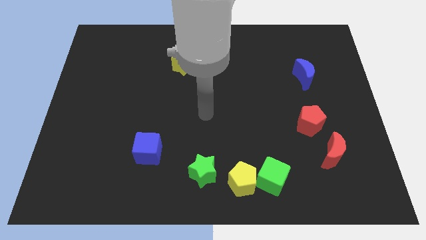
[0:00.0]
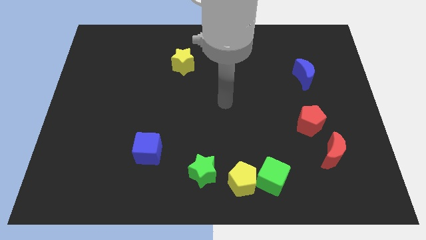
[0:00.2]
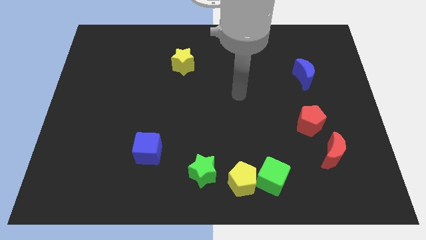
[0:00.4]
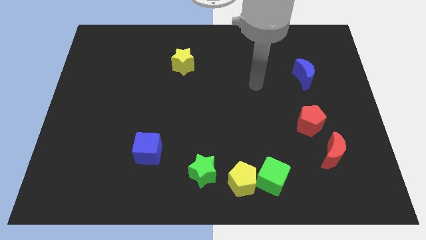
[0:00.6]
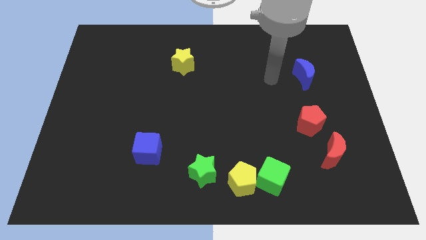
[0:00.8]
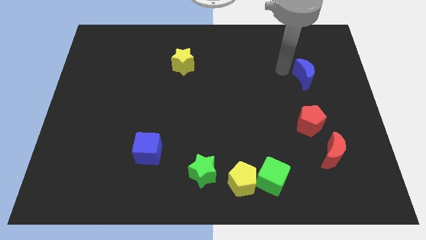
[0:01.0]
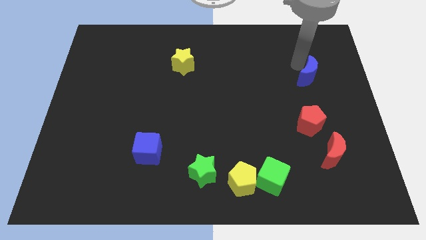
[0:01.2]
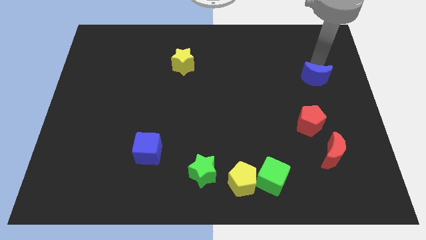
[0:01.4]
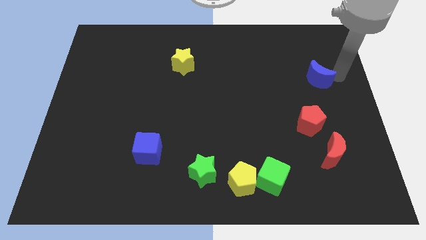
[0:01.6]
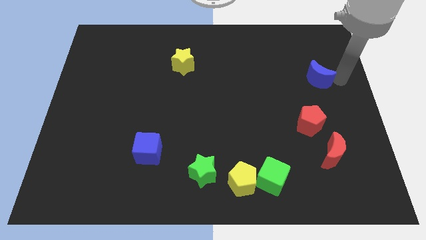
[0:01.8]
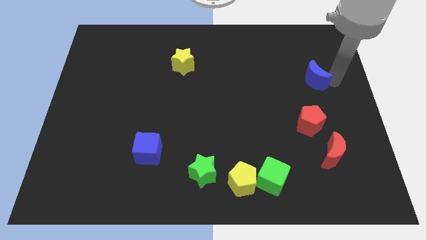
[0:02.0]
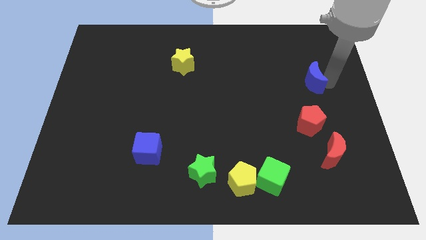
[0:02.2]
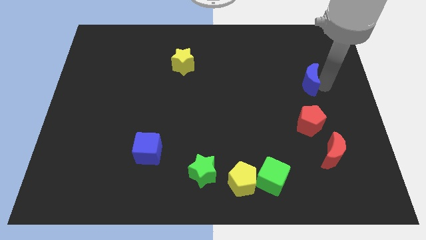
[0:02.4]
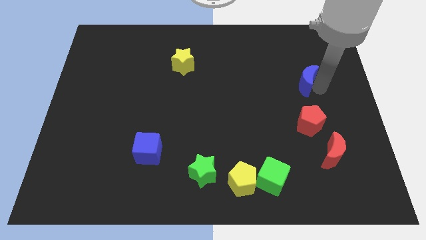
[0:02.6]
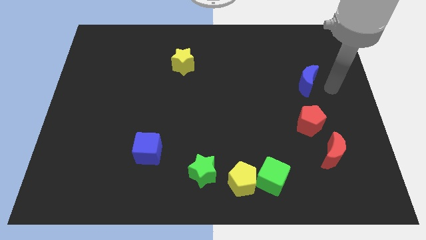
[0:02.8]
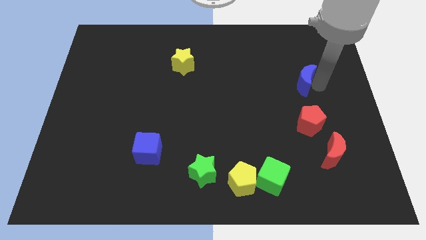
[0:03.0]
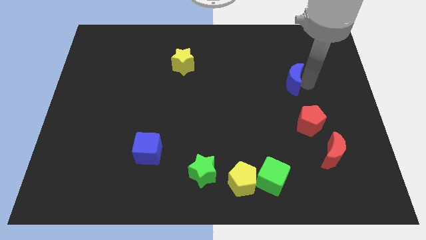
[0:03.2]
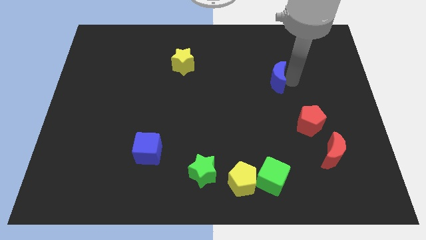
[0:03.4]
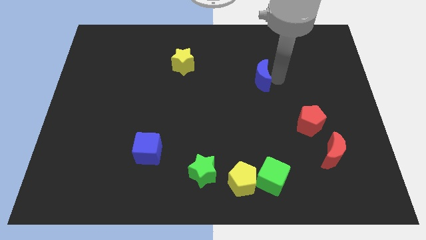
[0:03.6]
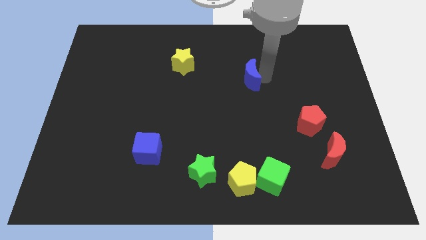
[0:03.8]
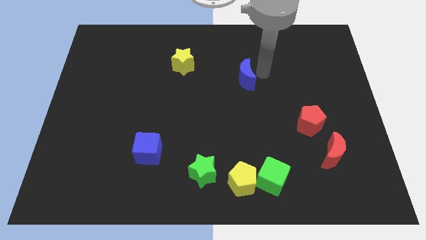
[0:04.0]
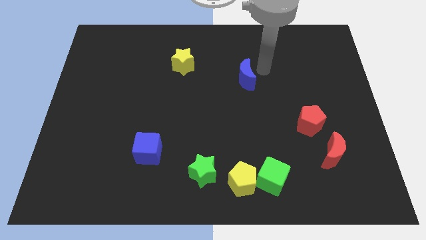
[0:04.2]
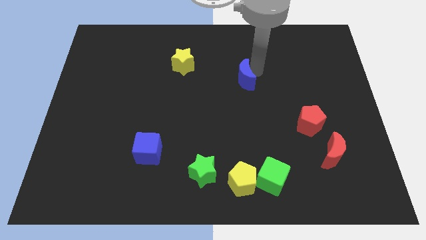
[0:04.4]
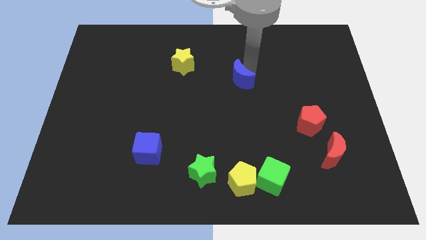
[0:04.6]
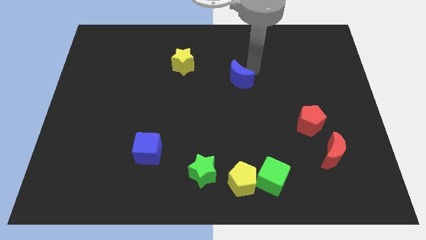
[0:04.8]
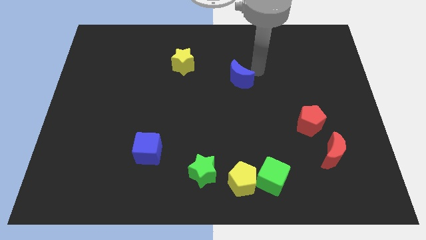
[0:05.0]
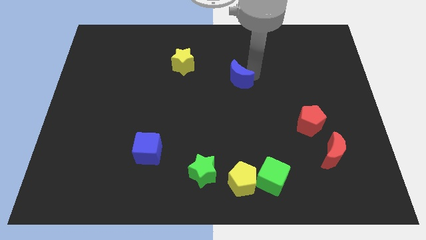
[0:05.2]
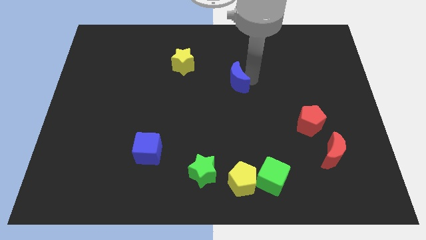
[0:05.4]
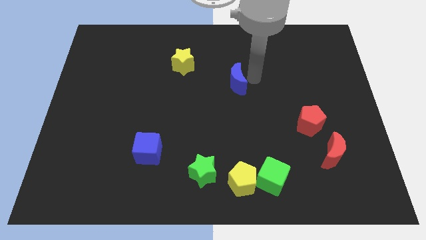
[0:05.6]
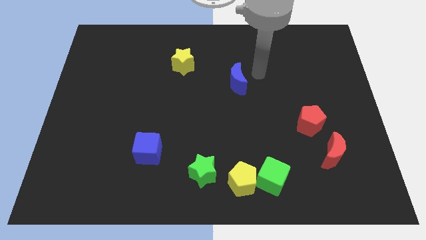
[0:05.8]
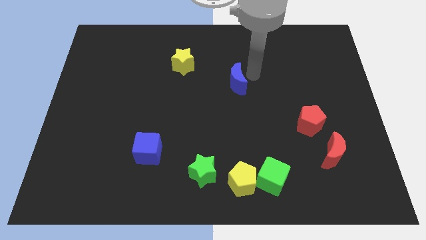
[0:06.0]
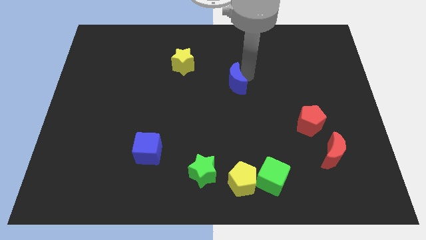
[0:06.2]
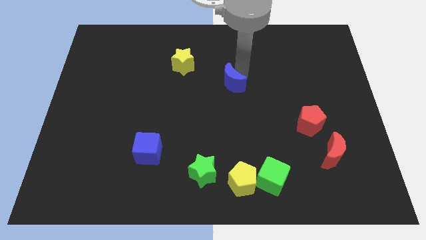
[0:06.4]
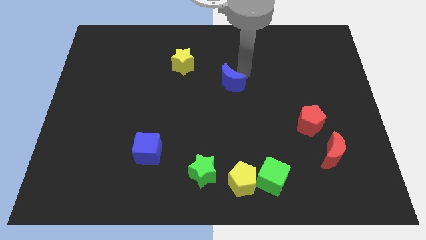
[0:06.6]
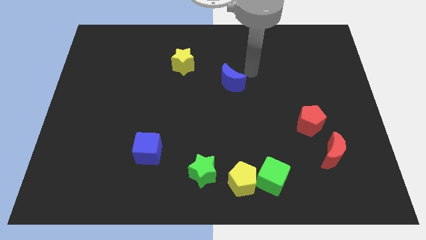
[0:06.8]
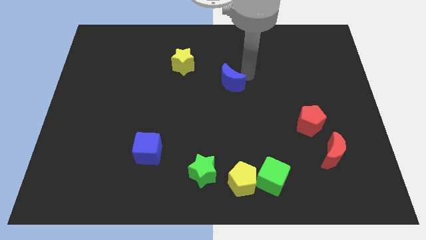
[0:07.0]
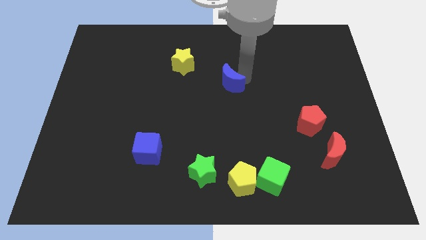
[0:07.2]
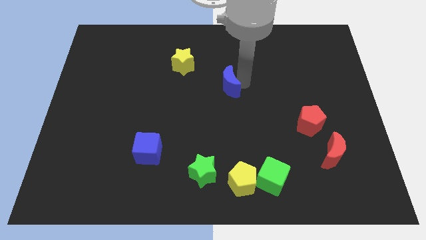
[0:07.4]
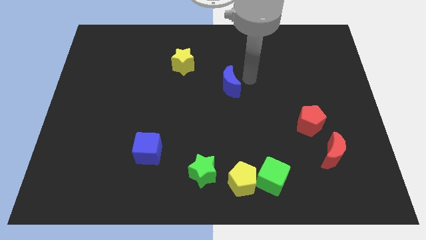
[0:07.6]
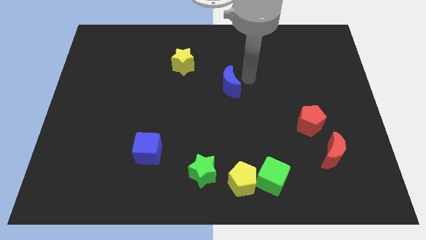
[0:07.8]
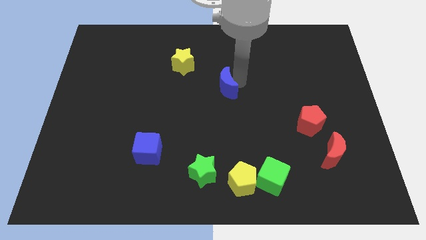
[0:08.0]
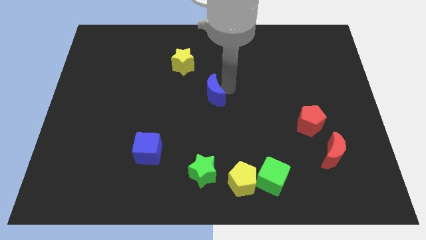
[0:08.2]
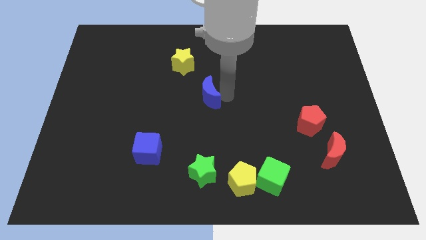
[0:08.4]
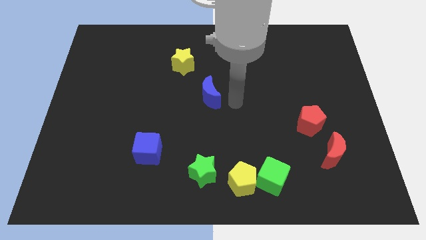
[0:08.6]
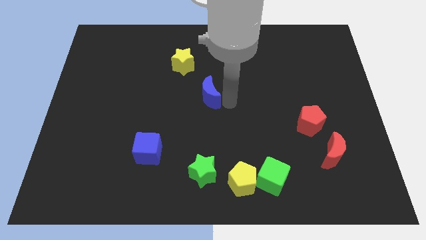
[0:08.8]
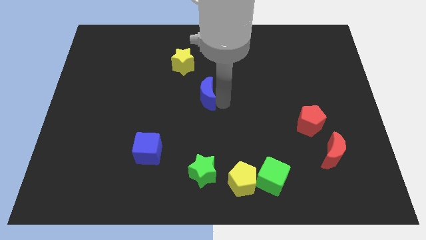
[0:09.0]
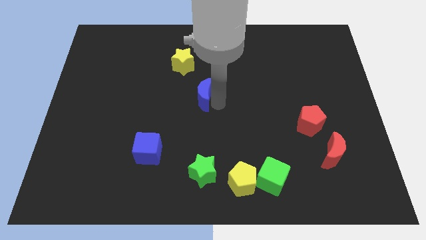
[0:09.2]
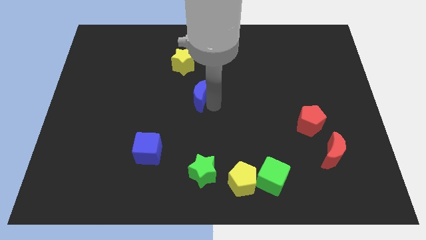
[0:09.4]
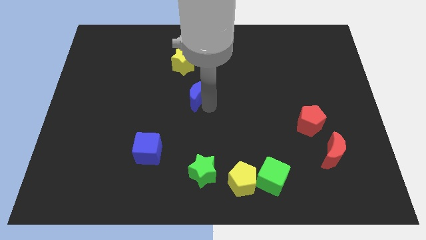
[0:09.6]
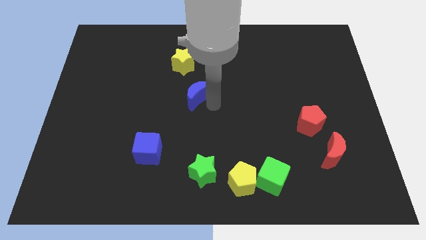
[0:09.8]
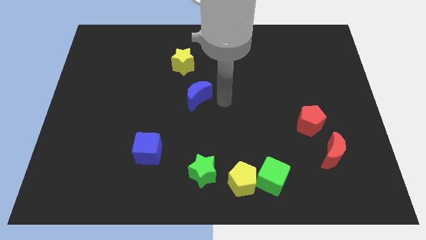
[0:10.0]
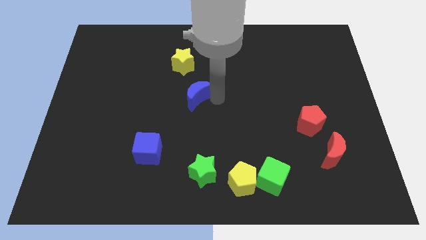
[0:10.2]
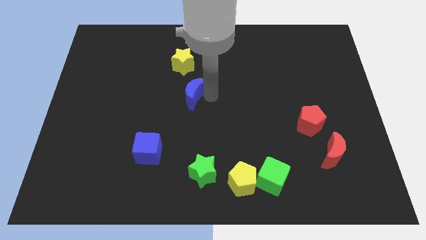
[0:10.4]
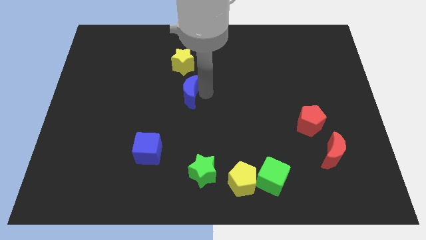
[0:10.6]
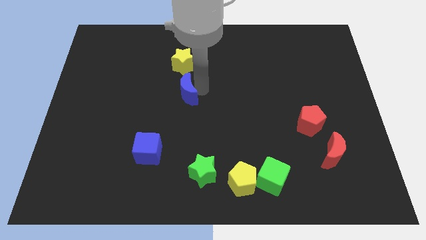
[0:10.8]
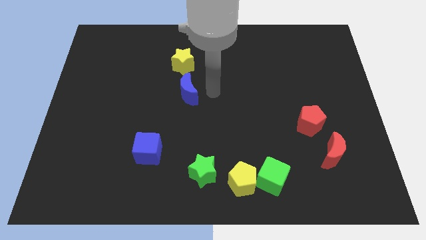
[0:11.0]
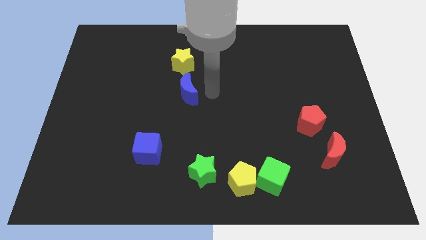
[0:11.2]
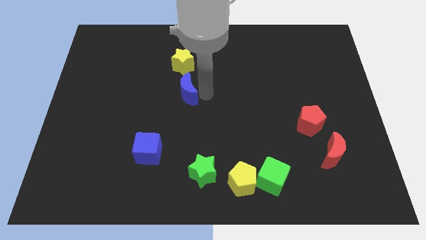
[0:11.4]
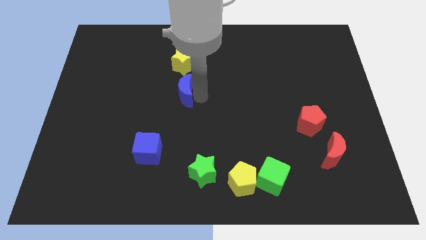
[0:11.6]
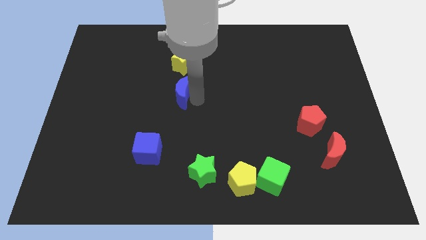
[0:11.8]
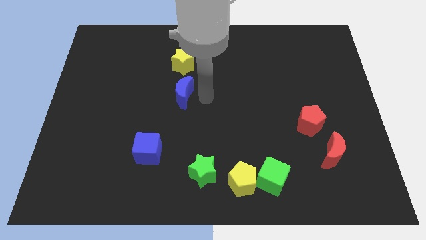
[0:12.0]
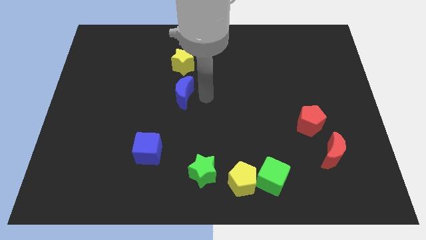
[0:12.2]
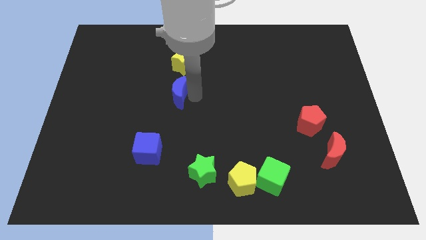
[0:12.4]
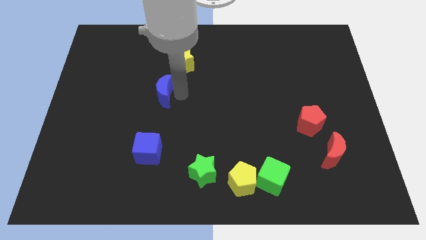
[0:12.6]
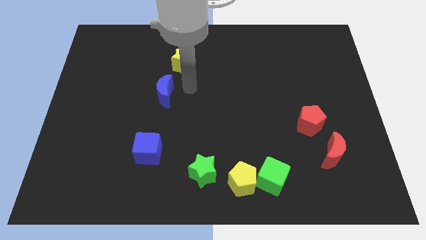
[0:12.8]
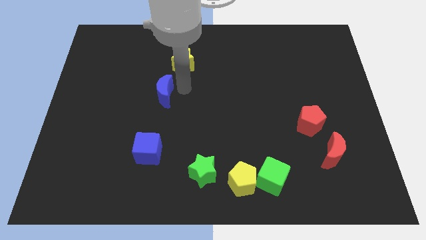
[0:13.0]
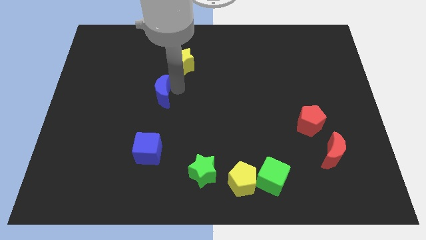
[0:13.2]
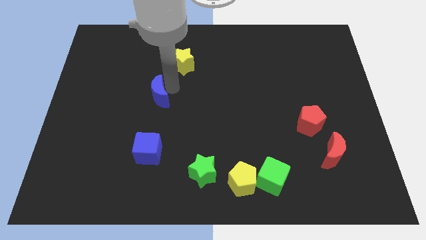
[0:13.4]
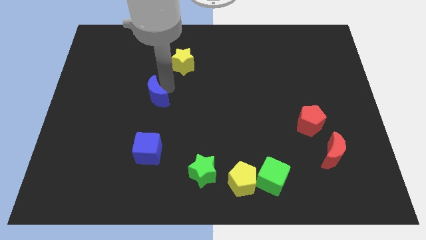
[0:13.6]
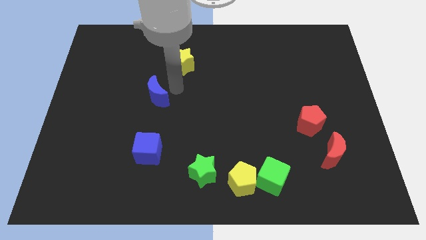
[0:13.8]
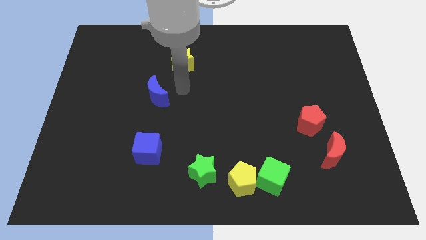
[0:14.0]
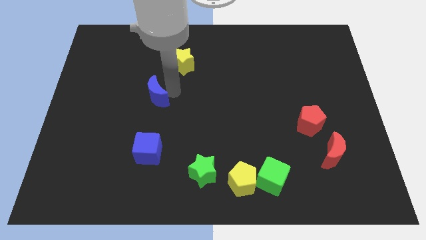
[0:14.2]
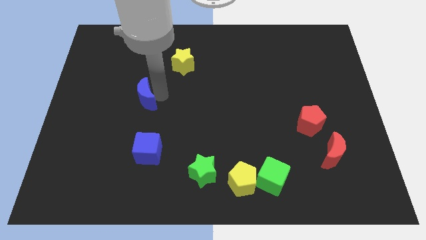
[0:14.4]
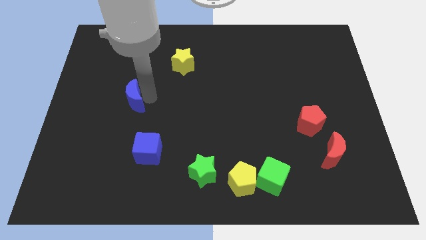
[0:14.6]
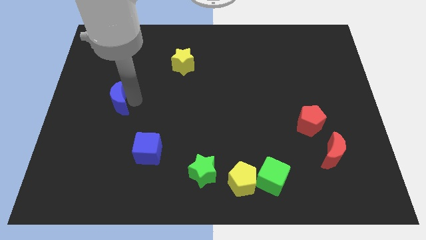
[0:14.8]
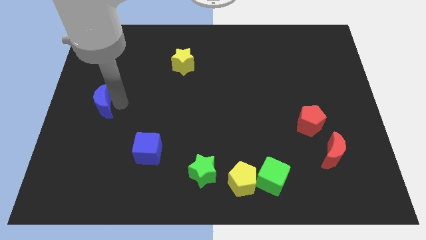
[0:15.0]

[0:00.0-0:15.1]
slide the blue moon to the left side
